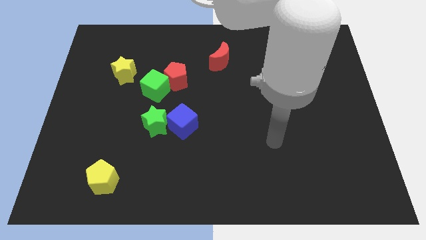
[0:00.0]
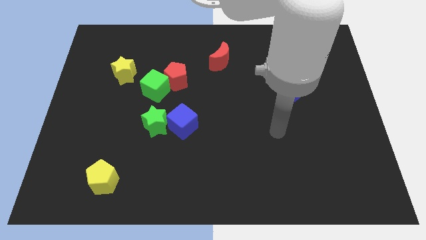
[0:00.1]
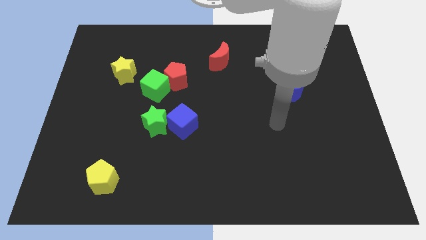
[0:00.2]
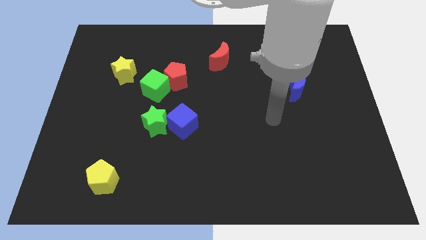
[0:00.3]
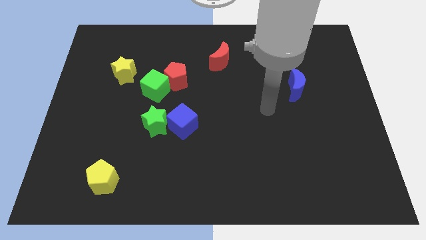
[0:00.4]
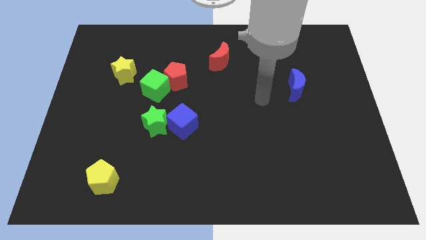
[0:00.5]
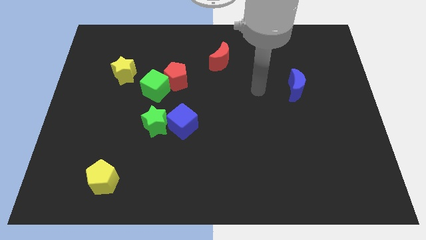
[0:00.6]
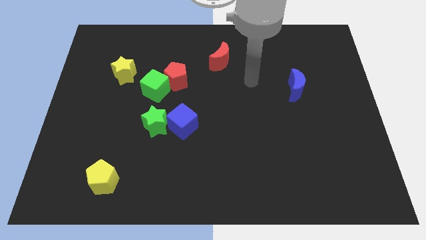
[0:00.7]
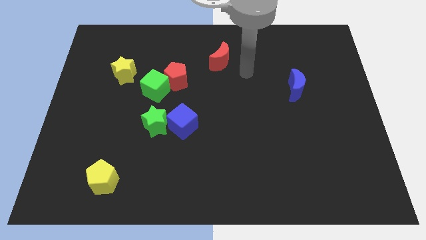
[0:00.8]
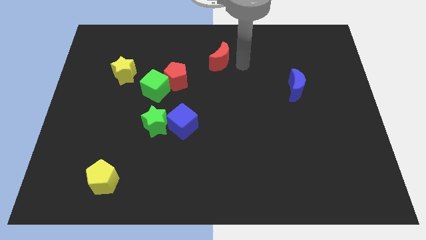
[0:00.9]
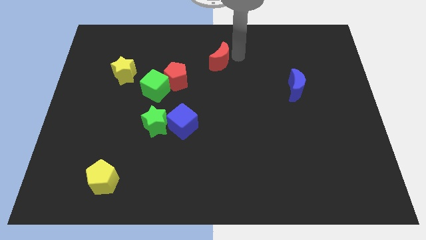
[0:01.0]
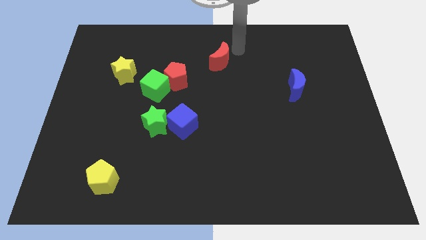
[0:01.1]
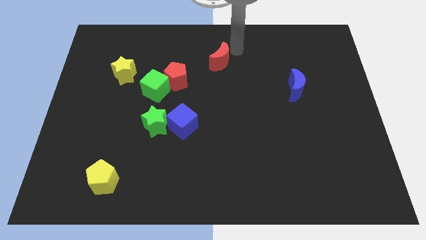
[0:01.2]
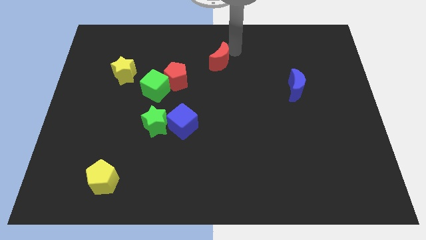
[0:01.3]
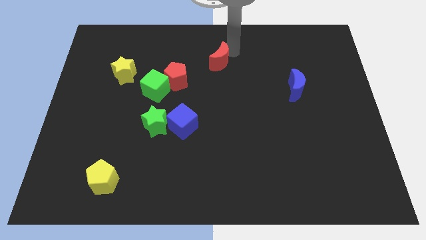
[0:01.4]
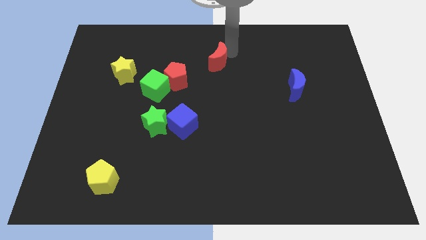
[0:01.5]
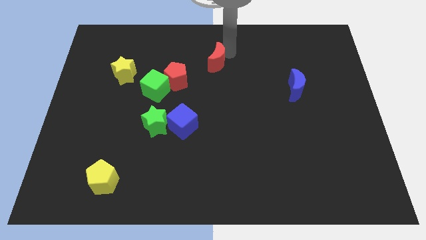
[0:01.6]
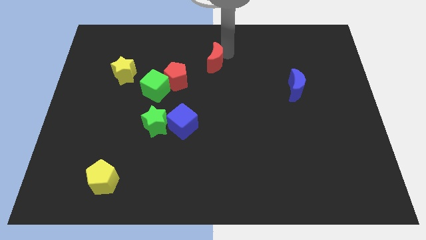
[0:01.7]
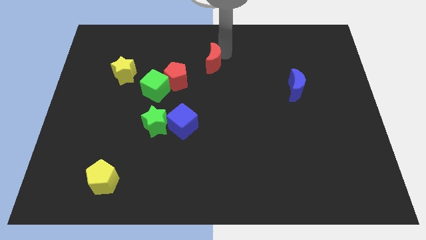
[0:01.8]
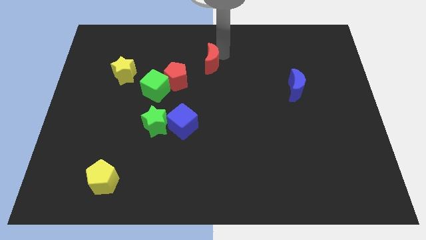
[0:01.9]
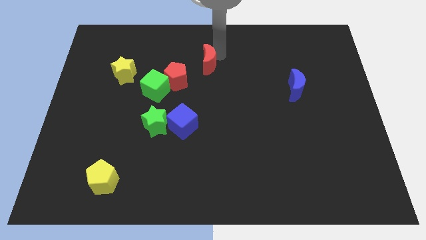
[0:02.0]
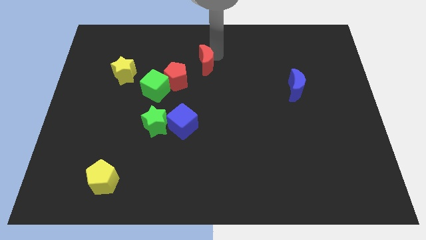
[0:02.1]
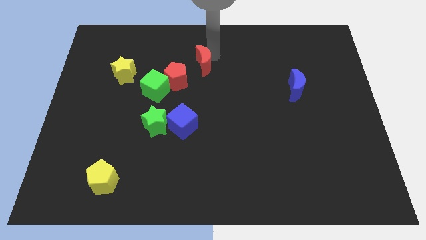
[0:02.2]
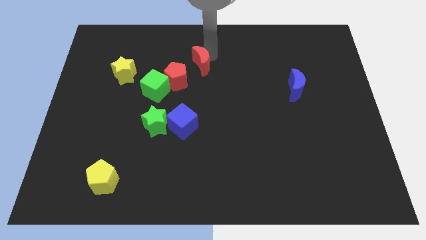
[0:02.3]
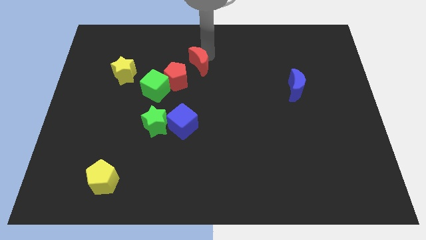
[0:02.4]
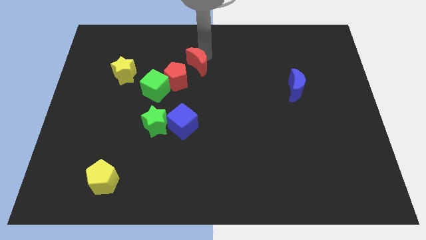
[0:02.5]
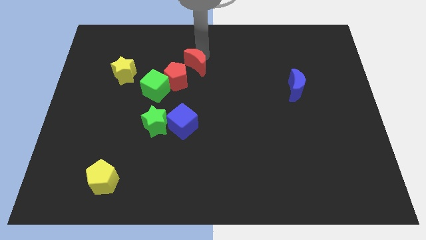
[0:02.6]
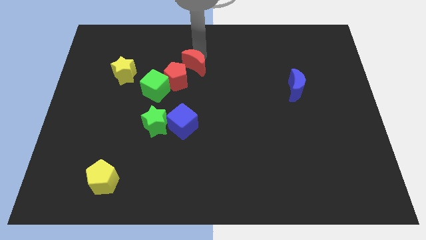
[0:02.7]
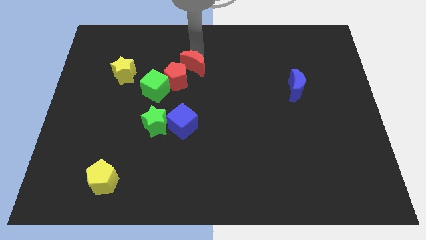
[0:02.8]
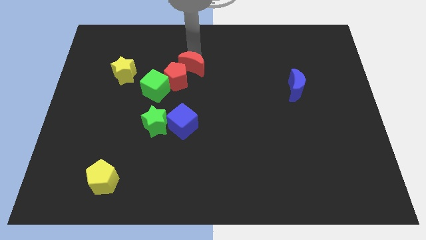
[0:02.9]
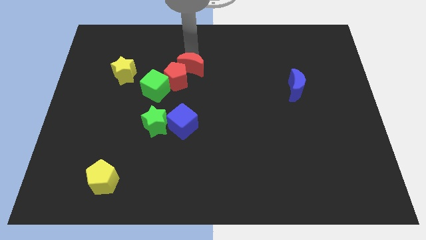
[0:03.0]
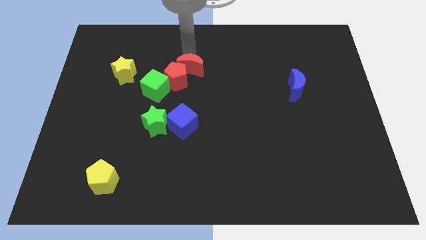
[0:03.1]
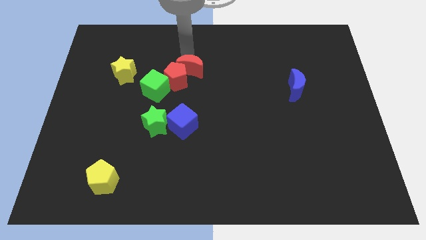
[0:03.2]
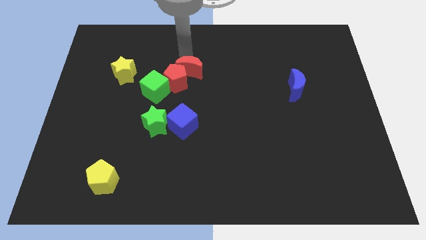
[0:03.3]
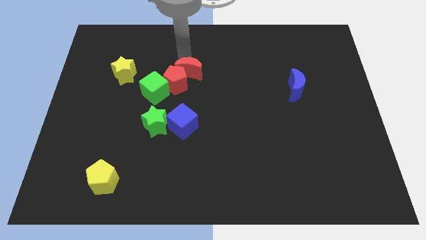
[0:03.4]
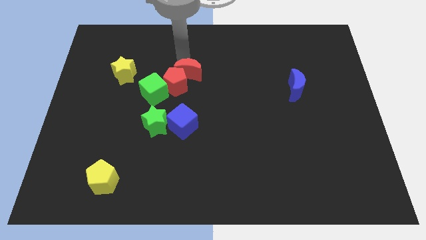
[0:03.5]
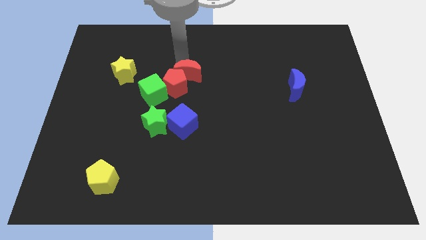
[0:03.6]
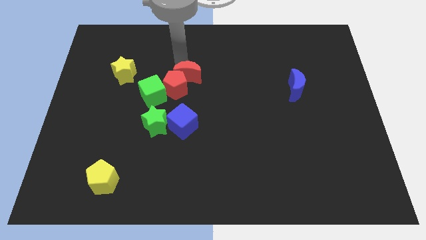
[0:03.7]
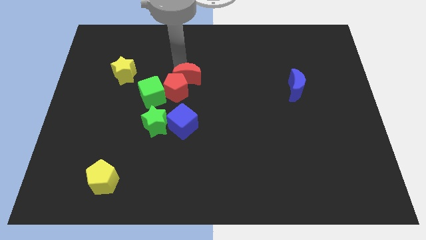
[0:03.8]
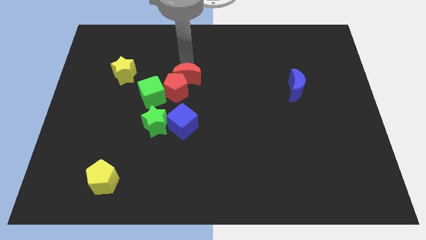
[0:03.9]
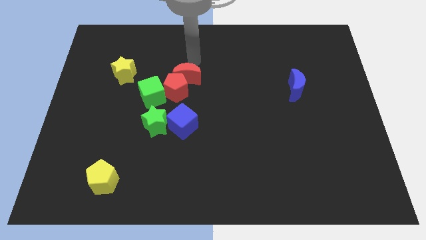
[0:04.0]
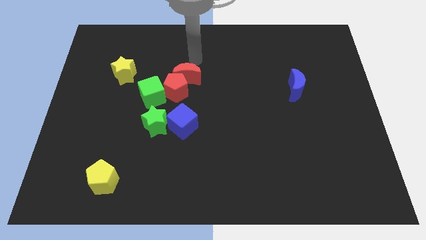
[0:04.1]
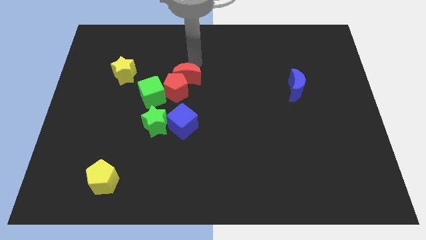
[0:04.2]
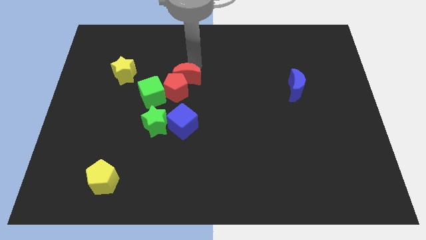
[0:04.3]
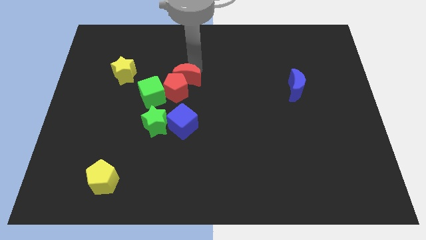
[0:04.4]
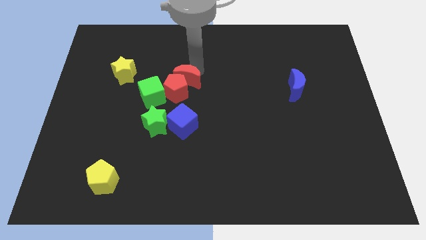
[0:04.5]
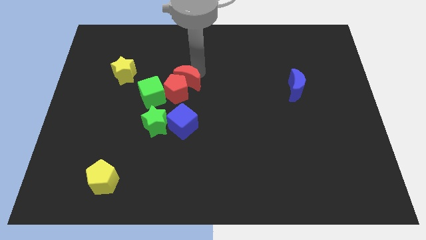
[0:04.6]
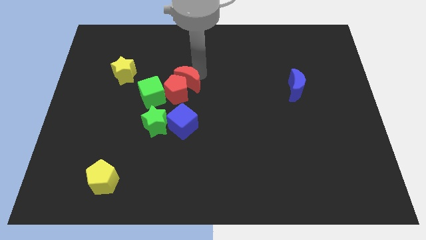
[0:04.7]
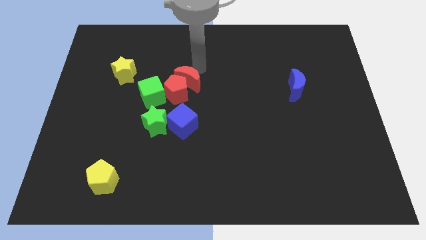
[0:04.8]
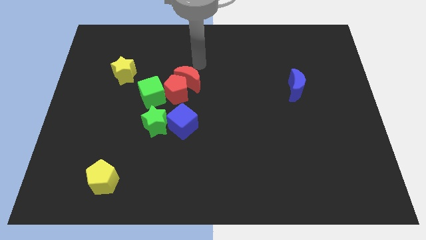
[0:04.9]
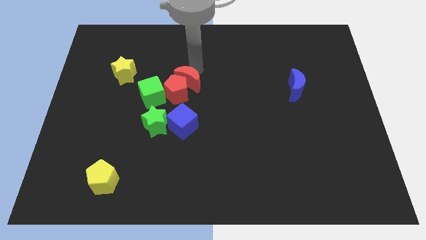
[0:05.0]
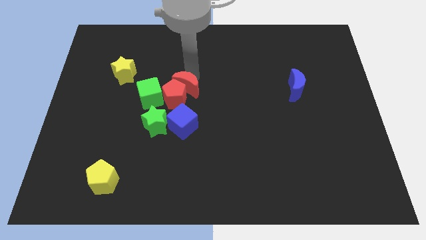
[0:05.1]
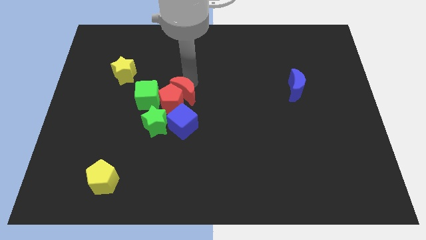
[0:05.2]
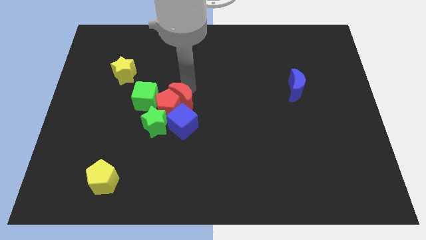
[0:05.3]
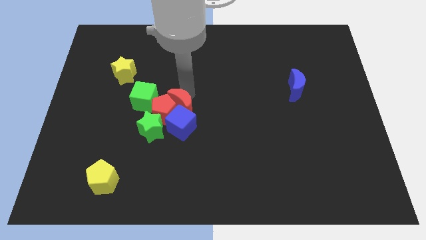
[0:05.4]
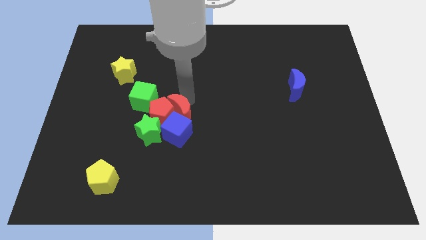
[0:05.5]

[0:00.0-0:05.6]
move the red moon to the bottom right of the green cube

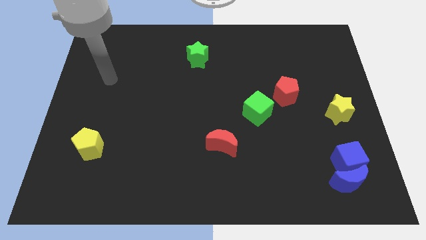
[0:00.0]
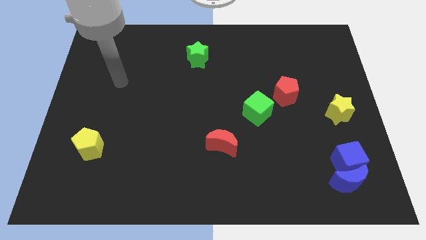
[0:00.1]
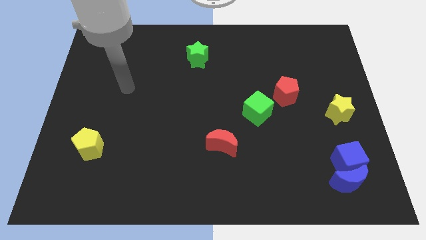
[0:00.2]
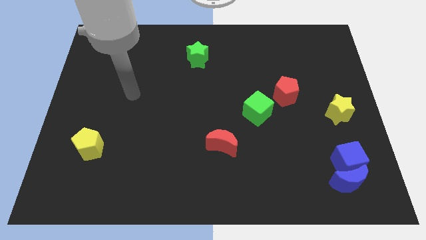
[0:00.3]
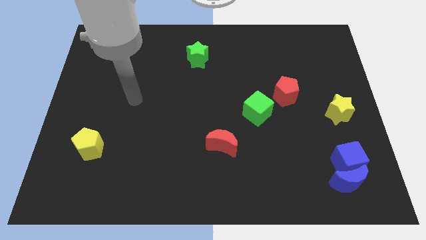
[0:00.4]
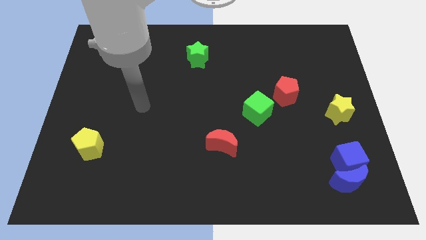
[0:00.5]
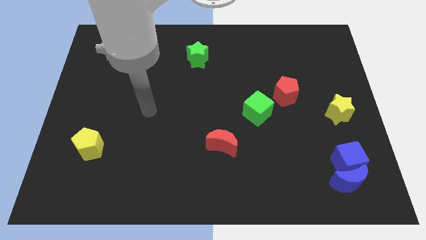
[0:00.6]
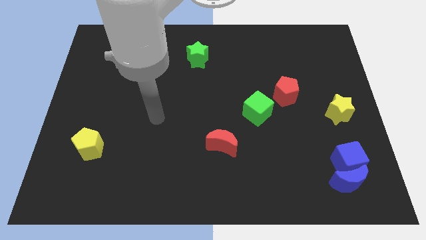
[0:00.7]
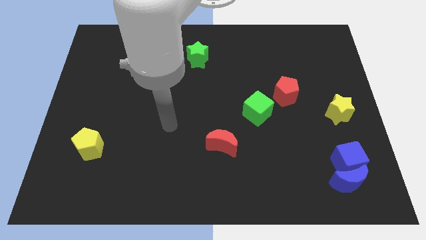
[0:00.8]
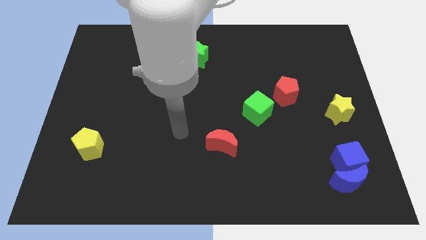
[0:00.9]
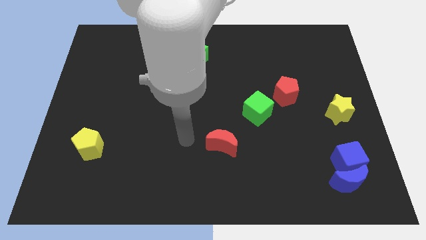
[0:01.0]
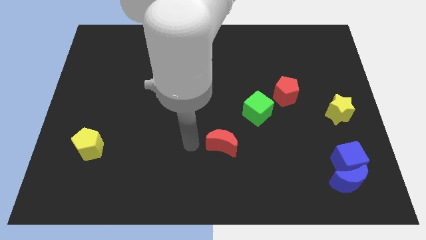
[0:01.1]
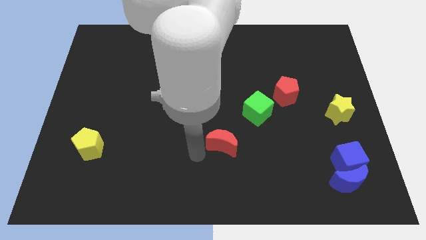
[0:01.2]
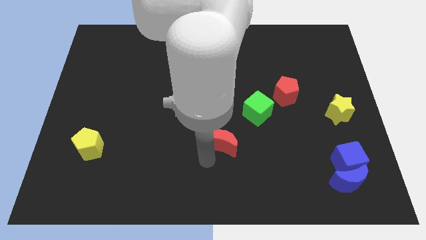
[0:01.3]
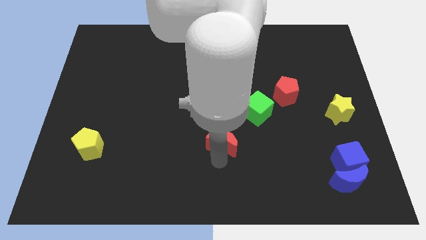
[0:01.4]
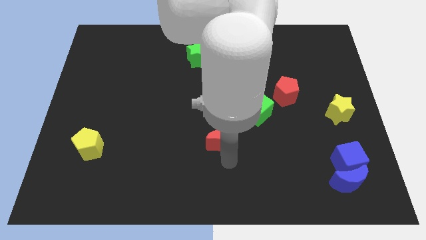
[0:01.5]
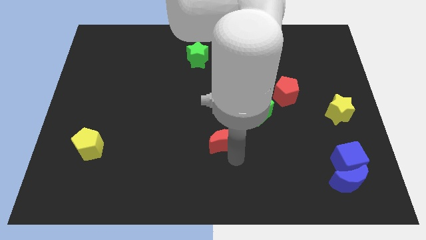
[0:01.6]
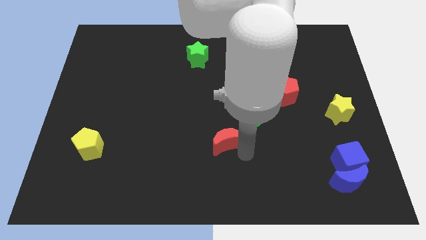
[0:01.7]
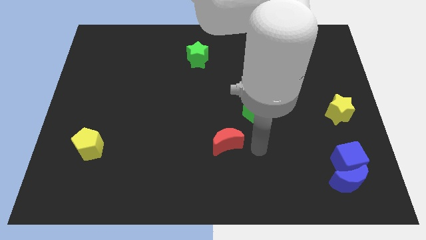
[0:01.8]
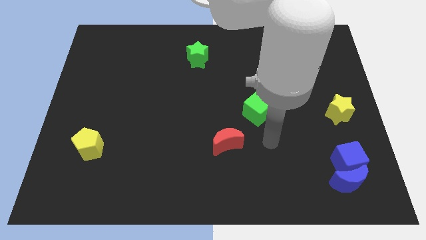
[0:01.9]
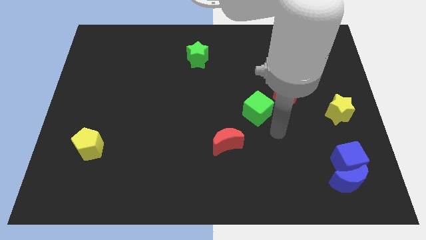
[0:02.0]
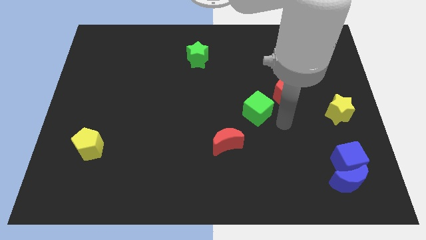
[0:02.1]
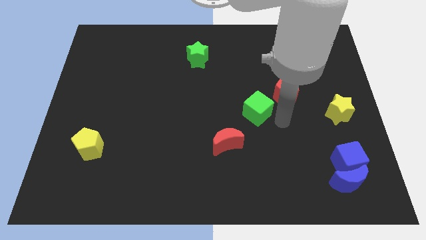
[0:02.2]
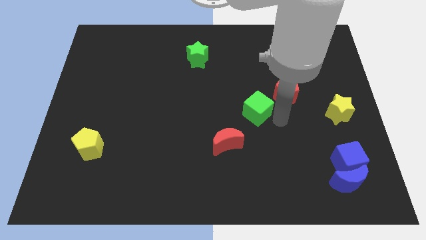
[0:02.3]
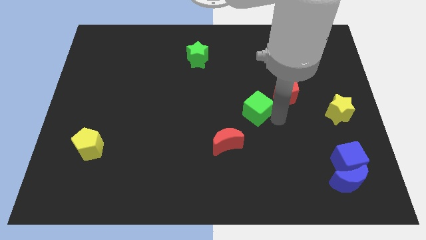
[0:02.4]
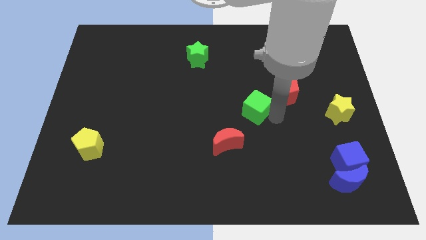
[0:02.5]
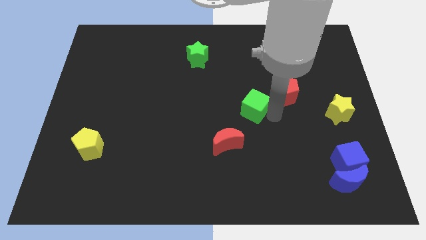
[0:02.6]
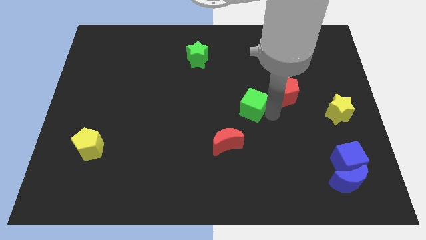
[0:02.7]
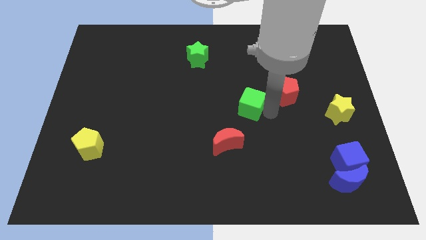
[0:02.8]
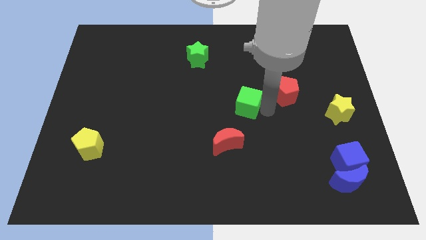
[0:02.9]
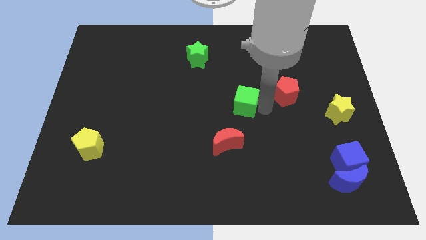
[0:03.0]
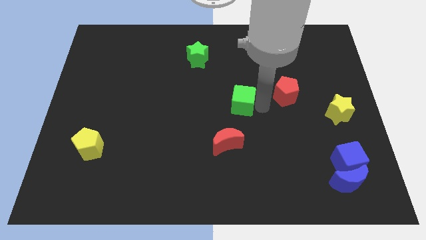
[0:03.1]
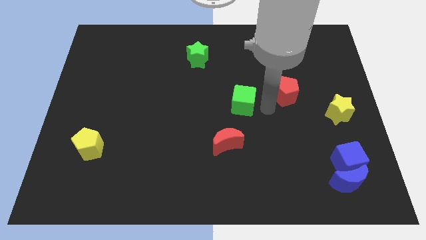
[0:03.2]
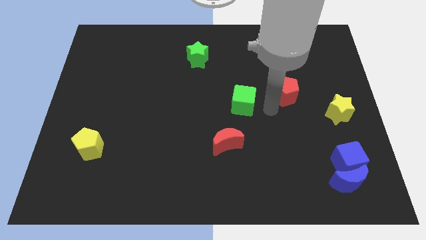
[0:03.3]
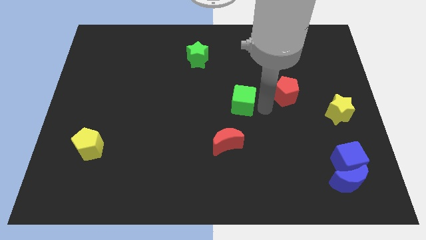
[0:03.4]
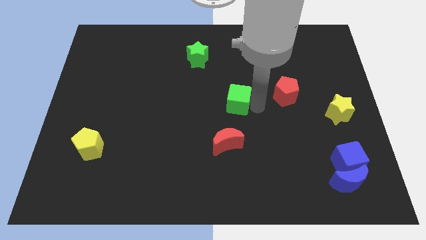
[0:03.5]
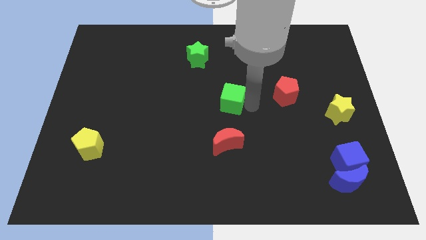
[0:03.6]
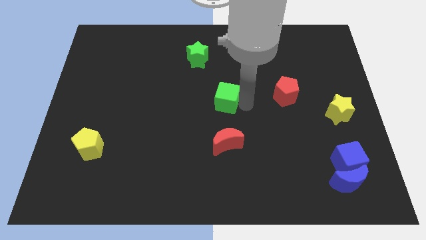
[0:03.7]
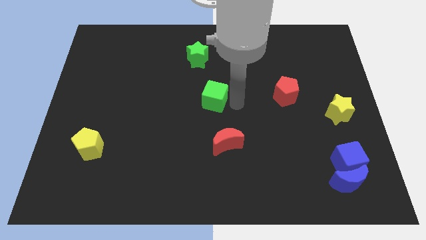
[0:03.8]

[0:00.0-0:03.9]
slide the green cube to the bottom side of the green star
